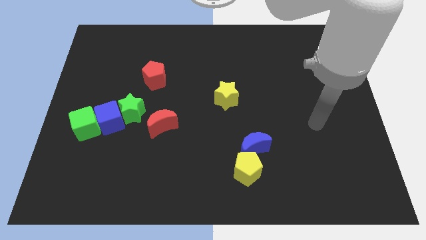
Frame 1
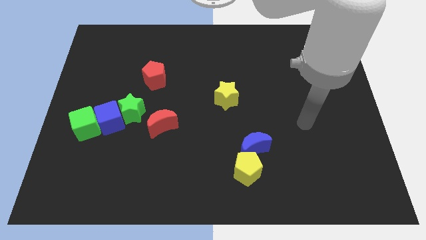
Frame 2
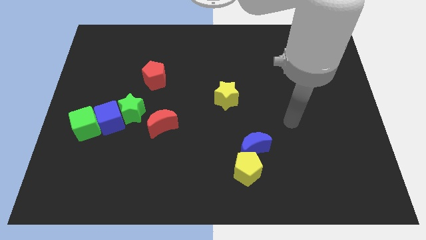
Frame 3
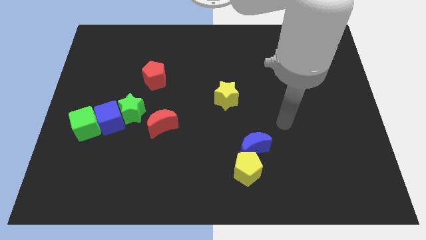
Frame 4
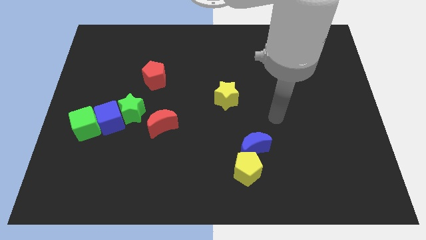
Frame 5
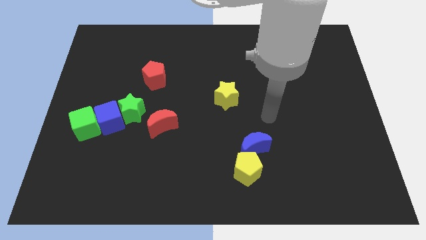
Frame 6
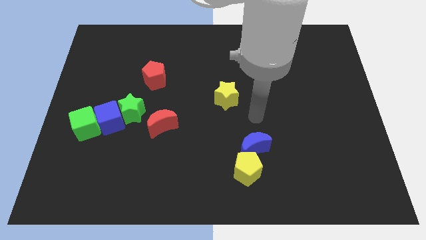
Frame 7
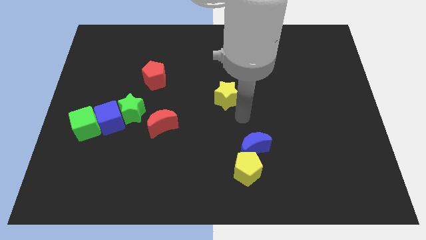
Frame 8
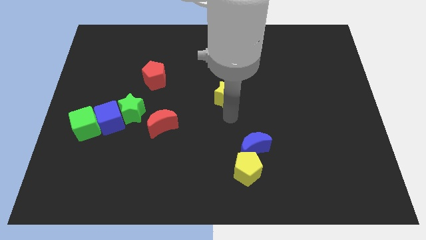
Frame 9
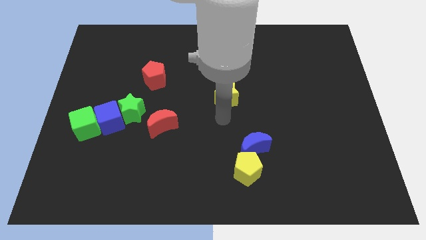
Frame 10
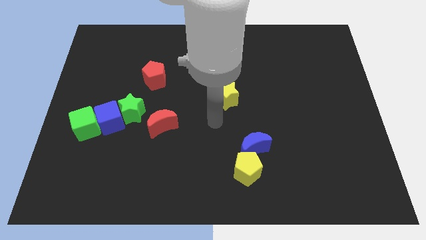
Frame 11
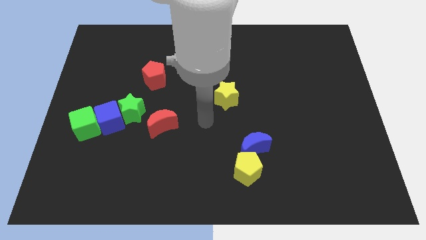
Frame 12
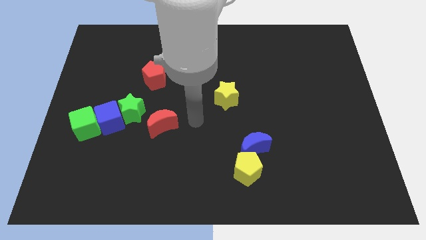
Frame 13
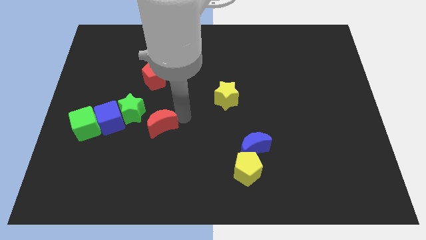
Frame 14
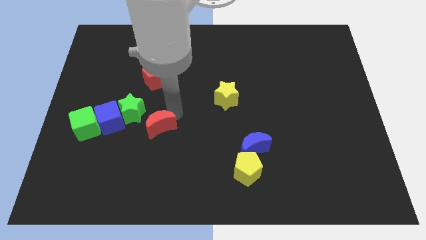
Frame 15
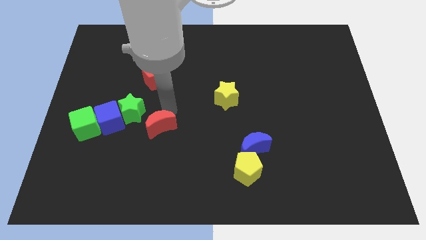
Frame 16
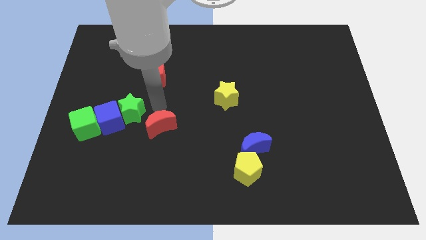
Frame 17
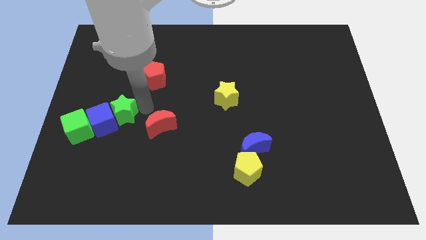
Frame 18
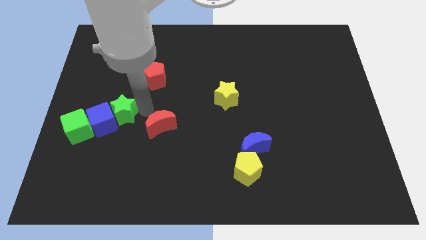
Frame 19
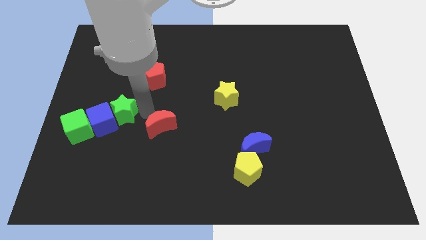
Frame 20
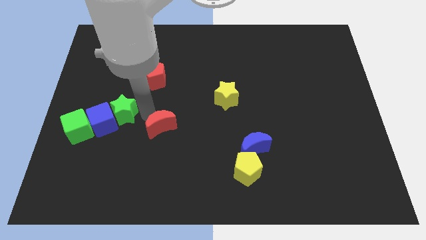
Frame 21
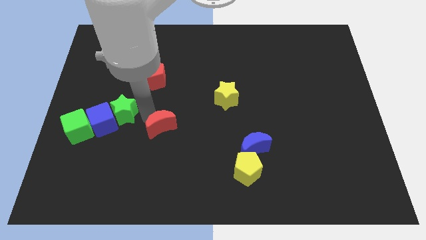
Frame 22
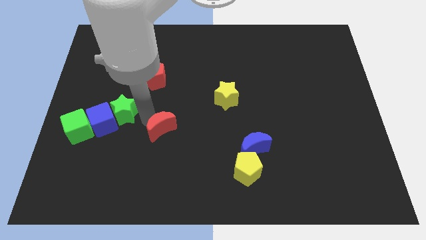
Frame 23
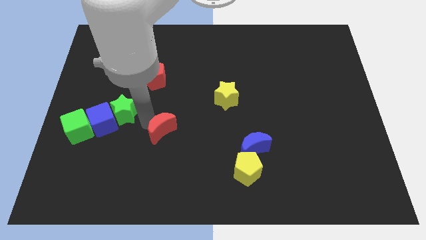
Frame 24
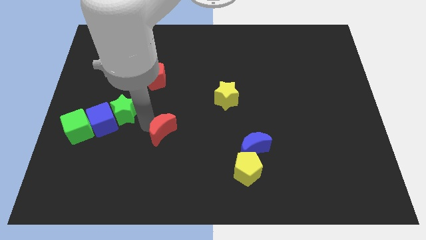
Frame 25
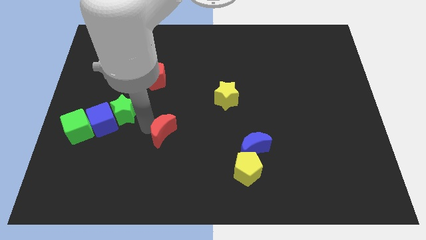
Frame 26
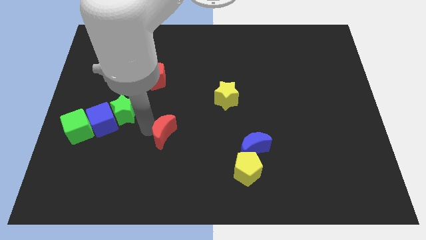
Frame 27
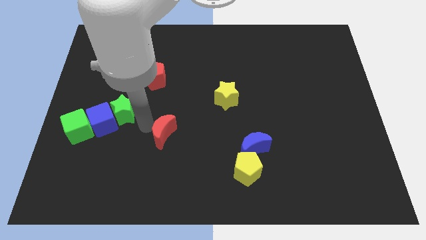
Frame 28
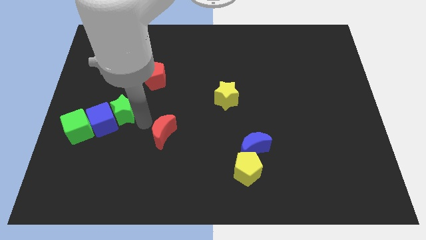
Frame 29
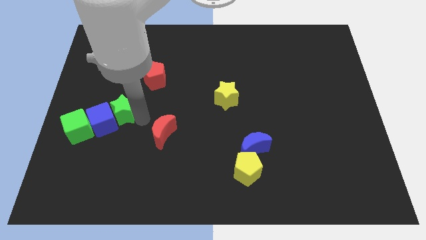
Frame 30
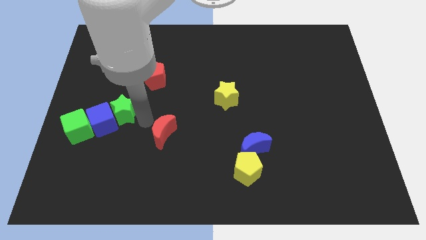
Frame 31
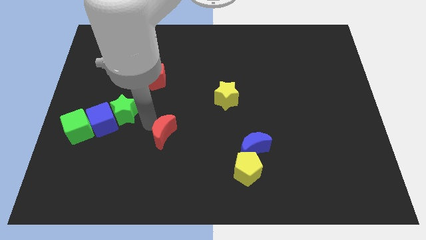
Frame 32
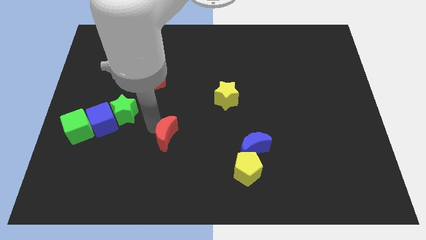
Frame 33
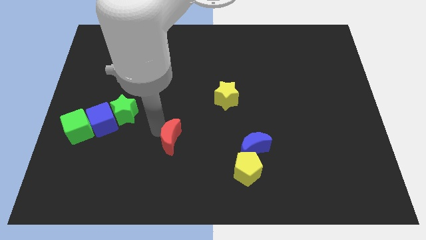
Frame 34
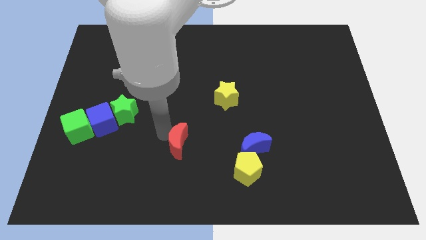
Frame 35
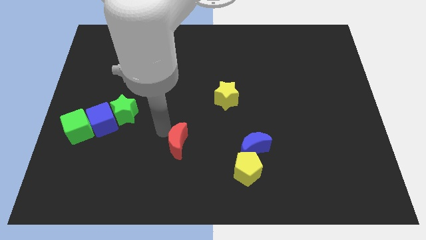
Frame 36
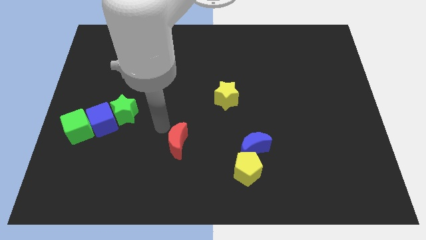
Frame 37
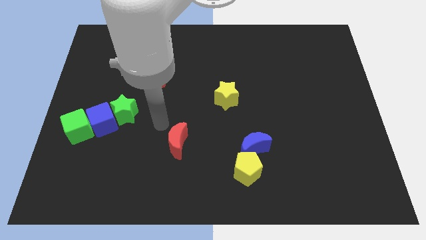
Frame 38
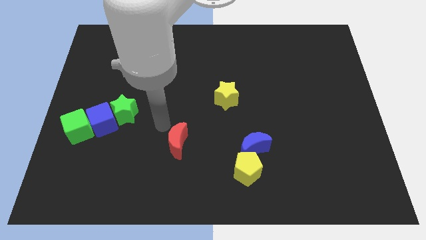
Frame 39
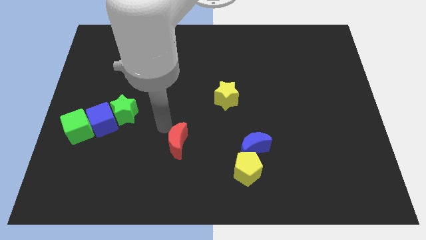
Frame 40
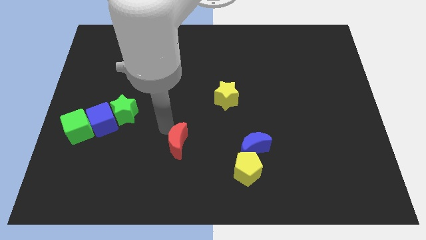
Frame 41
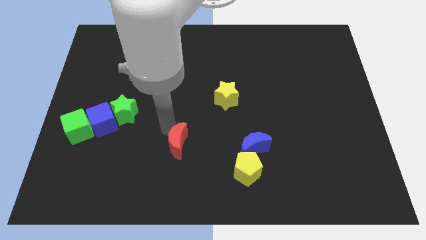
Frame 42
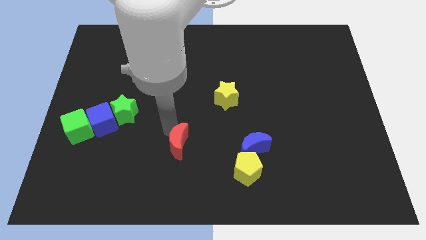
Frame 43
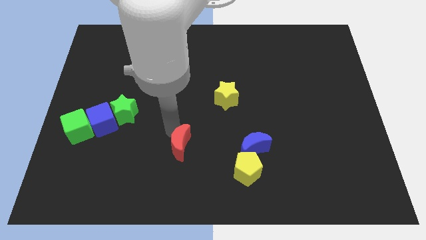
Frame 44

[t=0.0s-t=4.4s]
slide the red moon a little down and right diagonally

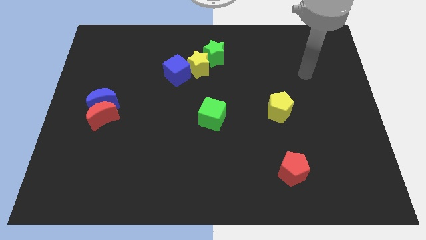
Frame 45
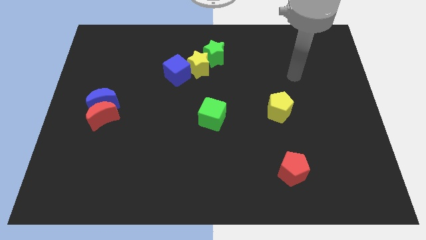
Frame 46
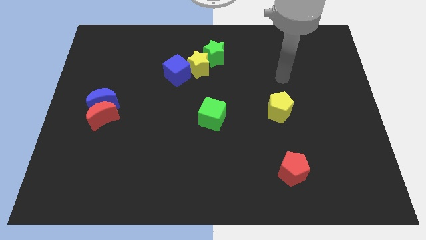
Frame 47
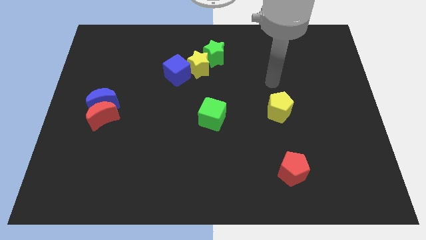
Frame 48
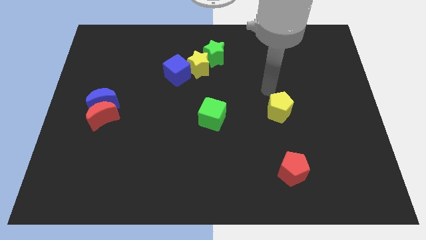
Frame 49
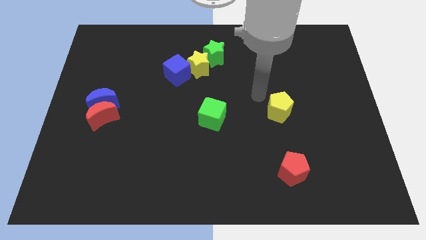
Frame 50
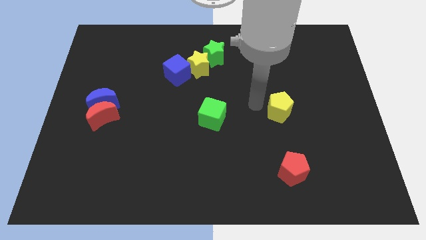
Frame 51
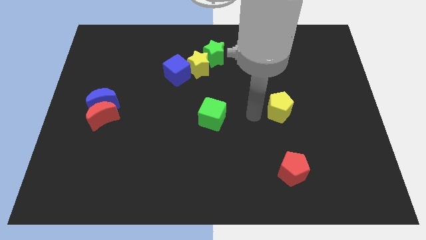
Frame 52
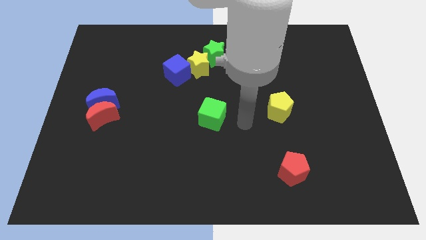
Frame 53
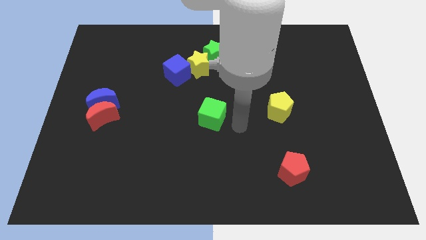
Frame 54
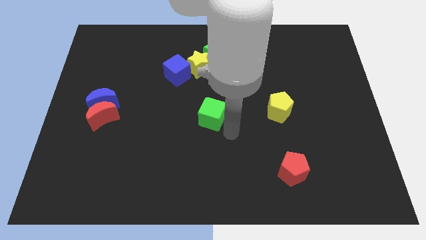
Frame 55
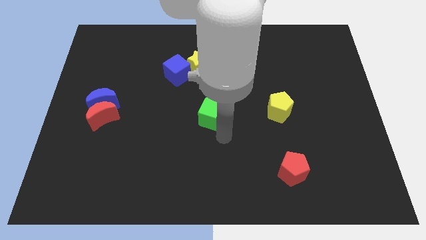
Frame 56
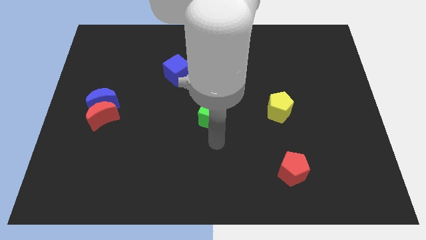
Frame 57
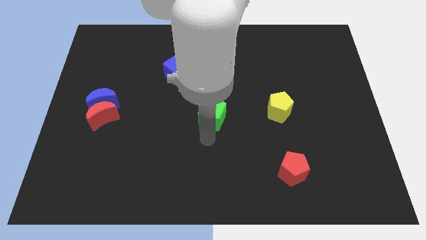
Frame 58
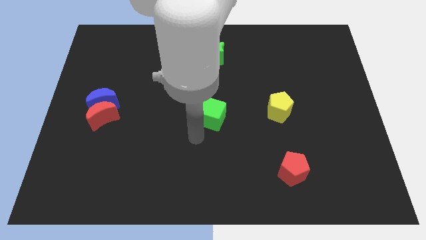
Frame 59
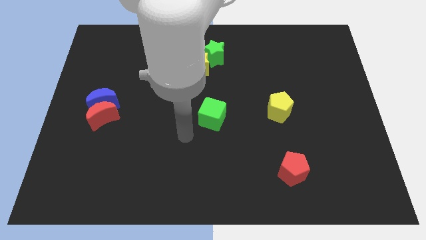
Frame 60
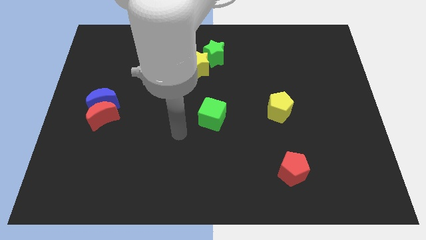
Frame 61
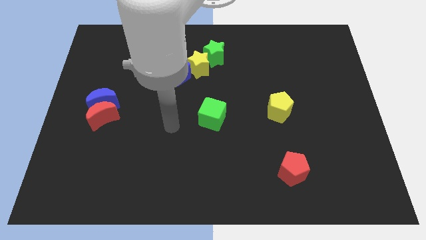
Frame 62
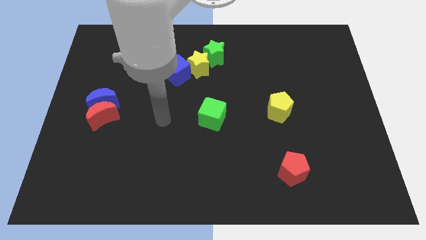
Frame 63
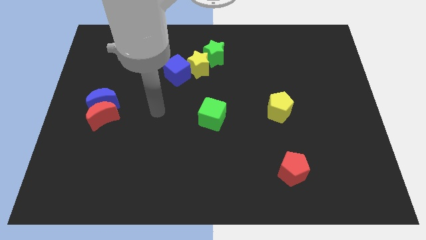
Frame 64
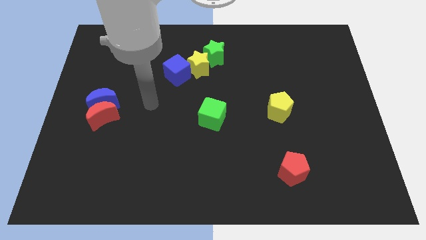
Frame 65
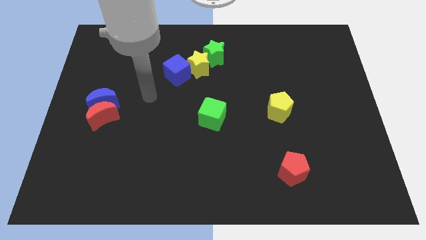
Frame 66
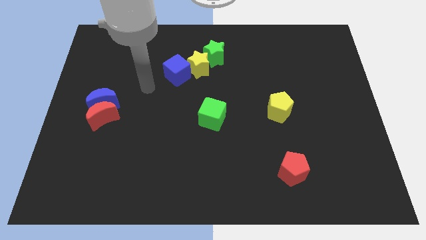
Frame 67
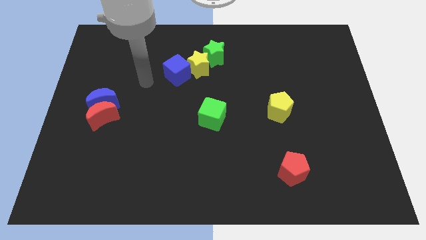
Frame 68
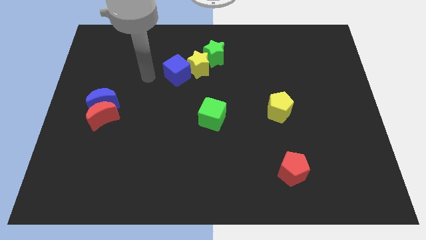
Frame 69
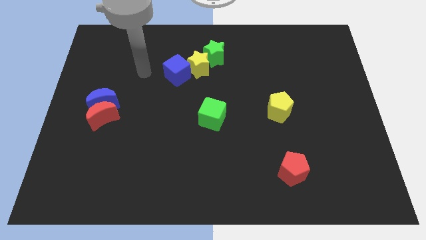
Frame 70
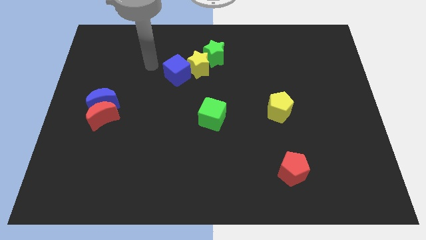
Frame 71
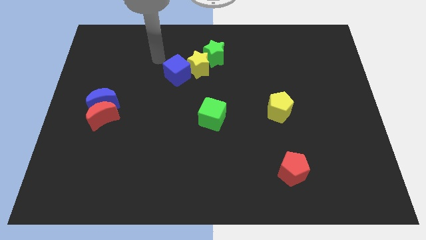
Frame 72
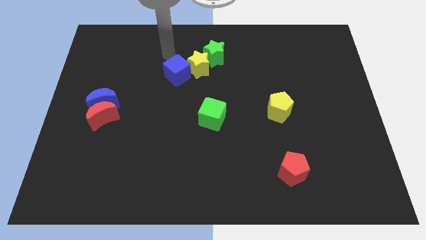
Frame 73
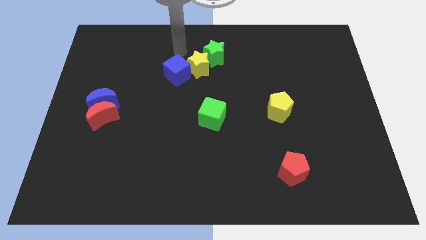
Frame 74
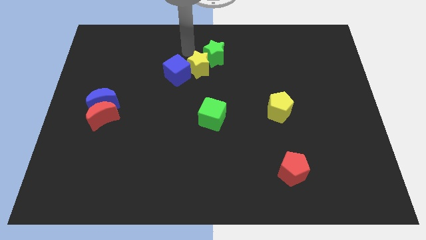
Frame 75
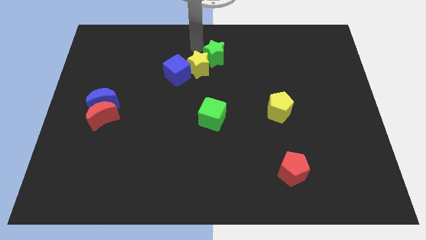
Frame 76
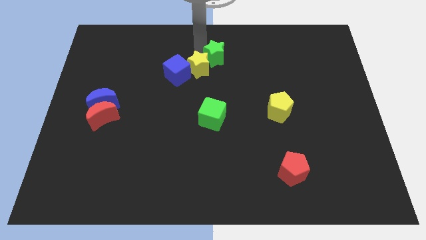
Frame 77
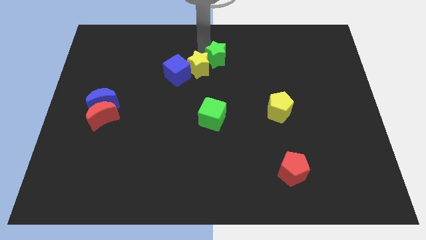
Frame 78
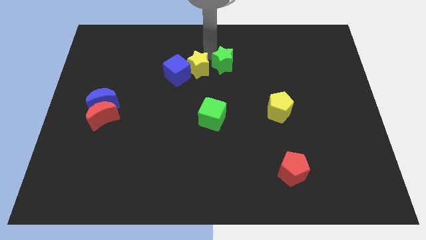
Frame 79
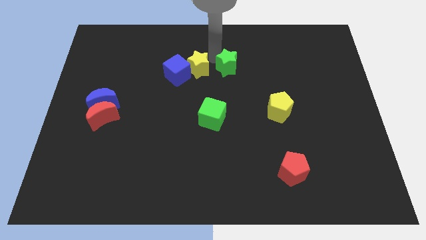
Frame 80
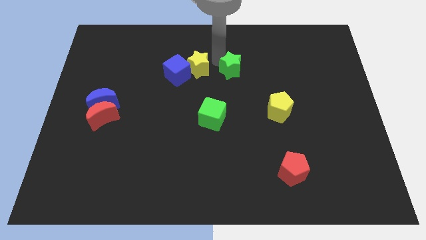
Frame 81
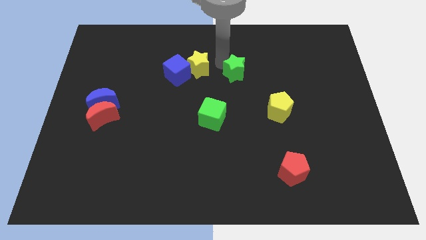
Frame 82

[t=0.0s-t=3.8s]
push the green star a little downwards and then to the right
